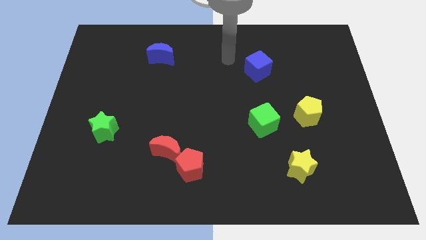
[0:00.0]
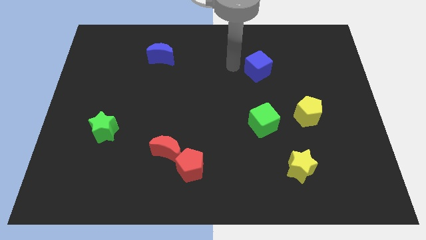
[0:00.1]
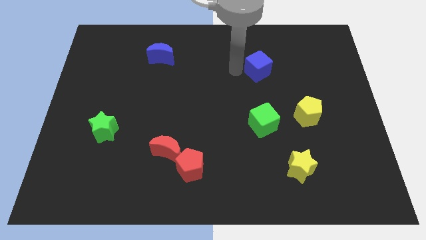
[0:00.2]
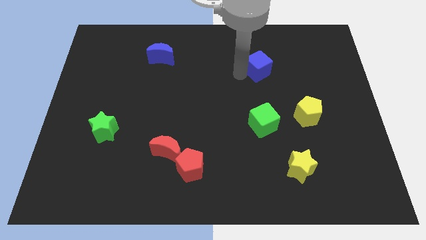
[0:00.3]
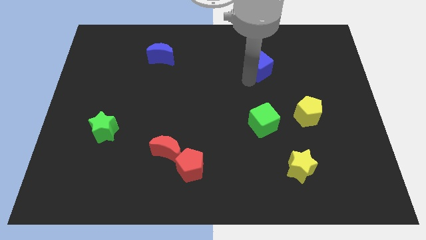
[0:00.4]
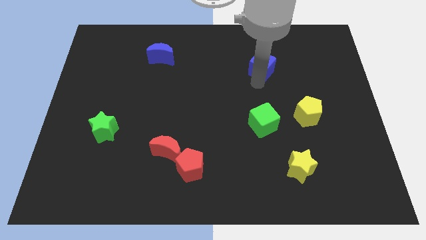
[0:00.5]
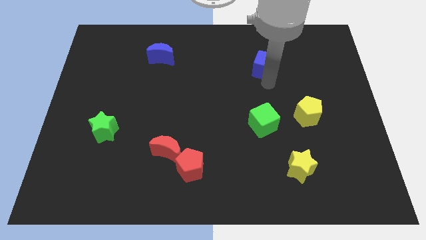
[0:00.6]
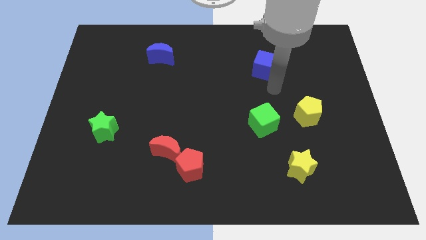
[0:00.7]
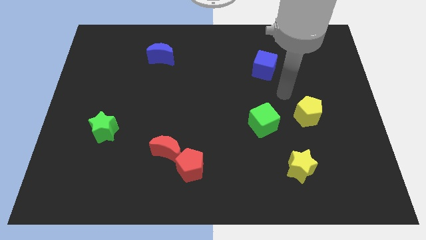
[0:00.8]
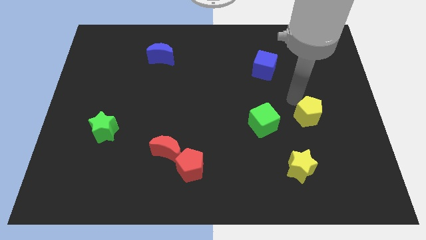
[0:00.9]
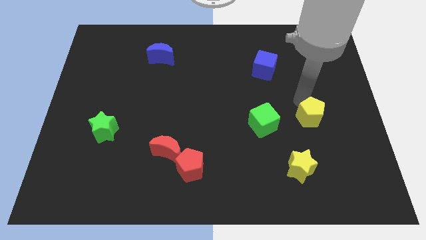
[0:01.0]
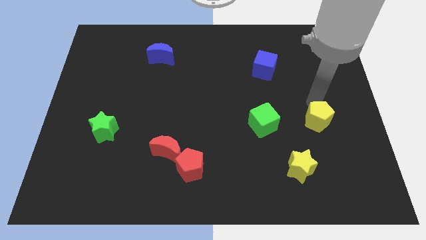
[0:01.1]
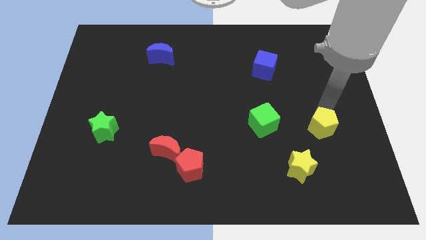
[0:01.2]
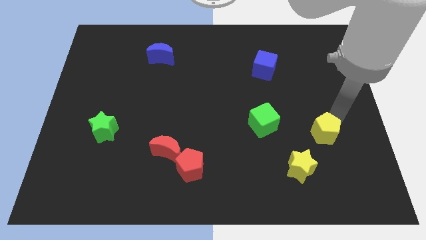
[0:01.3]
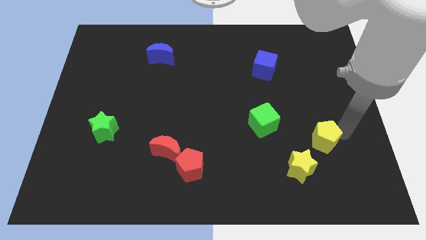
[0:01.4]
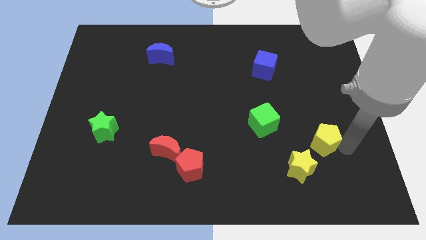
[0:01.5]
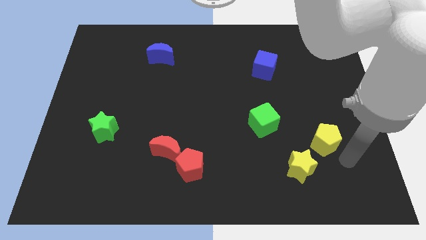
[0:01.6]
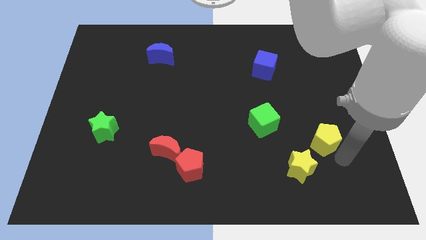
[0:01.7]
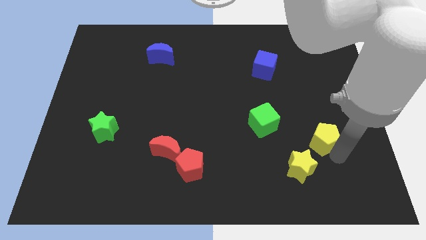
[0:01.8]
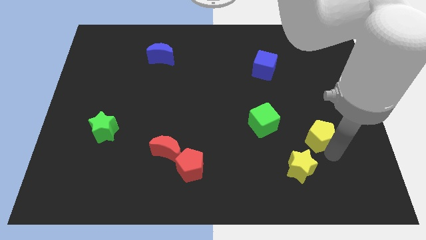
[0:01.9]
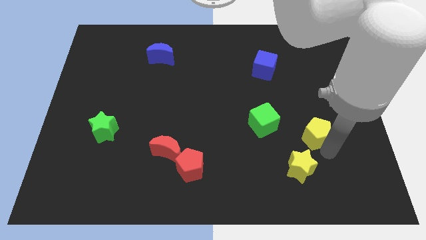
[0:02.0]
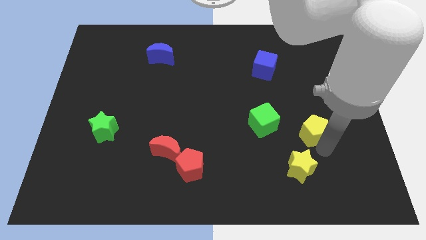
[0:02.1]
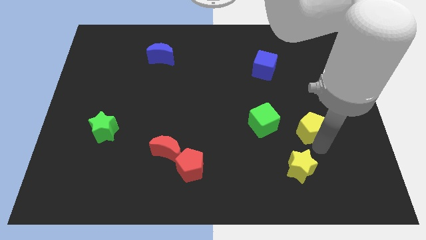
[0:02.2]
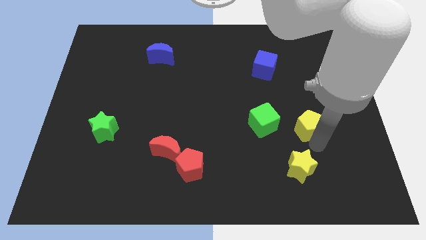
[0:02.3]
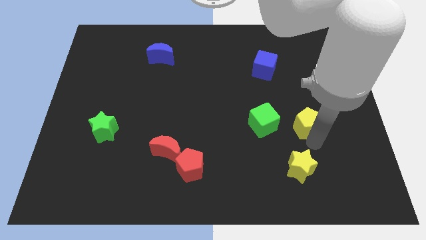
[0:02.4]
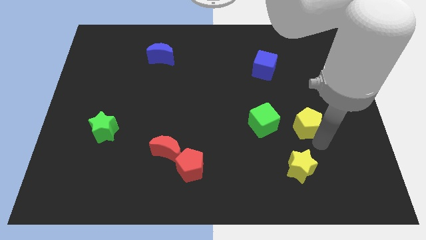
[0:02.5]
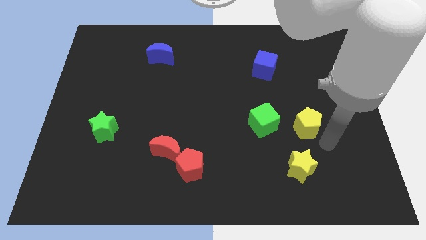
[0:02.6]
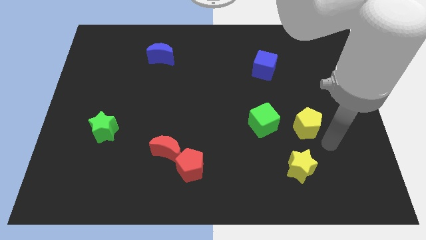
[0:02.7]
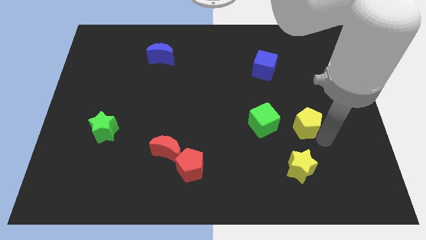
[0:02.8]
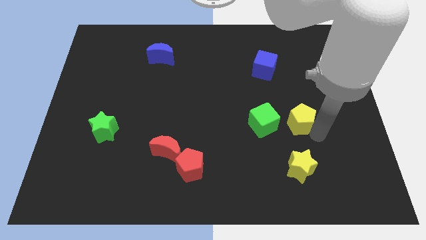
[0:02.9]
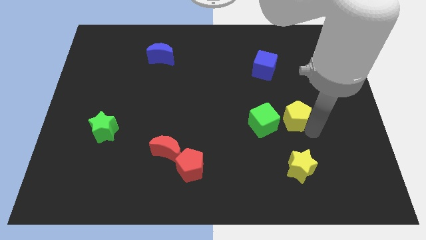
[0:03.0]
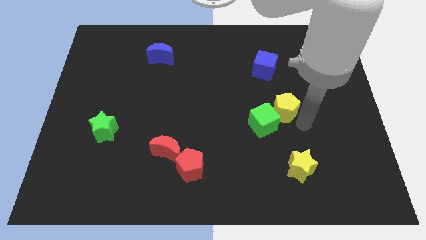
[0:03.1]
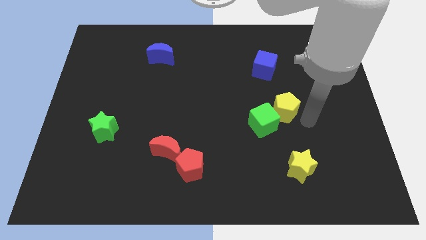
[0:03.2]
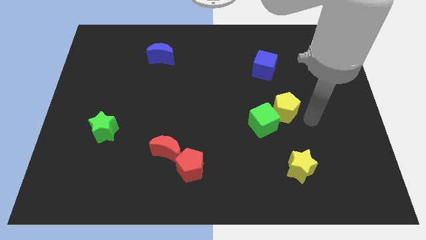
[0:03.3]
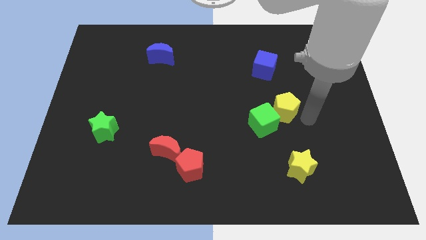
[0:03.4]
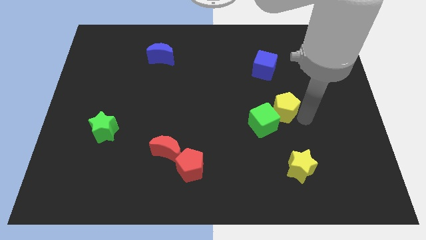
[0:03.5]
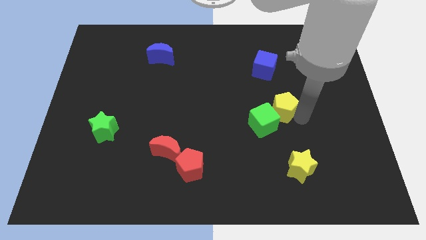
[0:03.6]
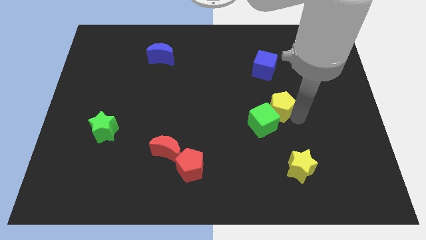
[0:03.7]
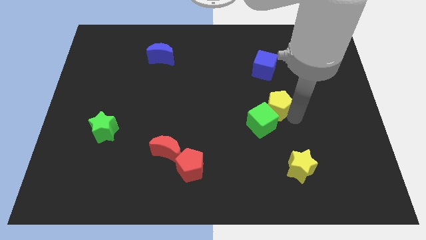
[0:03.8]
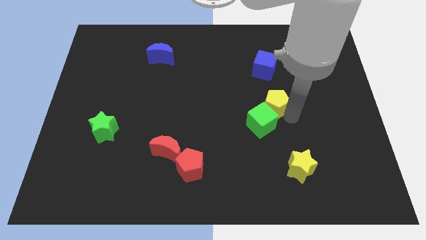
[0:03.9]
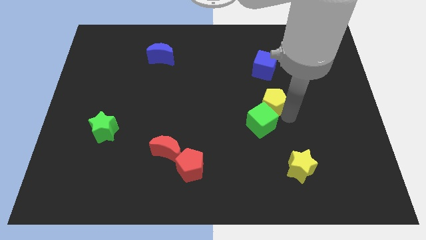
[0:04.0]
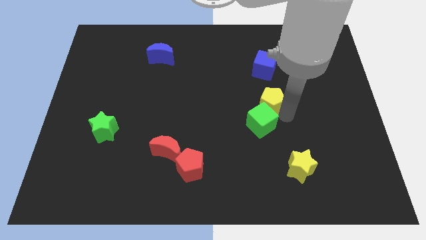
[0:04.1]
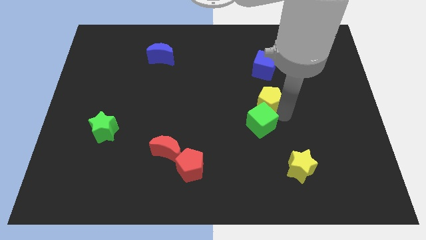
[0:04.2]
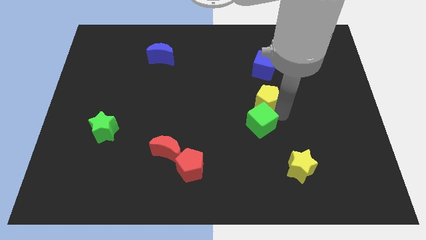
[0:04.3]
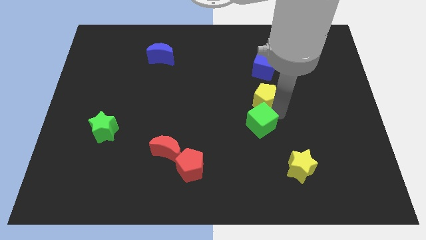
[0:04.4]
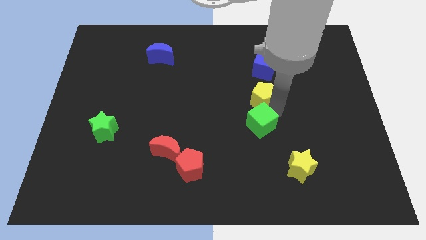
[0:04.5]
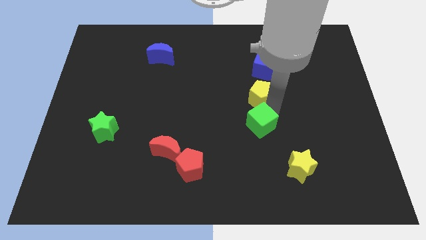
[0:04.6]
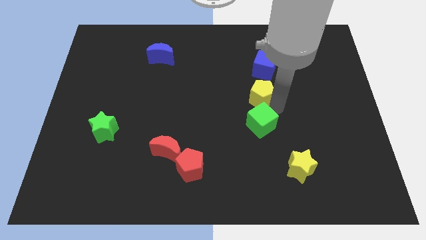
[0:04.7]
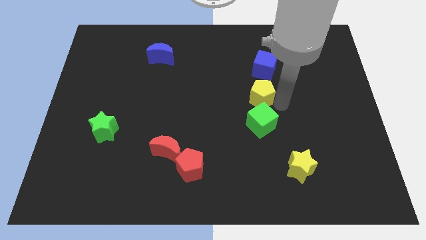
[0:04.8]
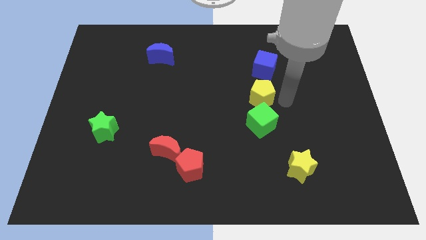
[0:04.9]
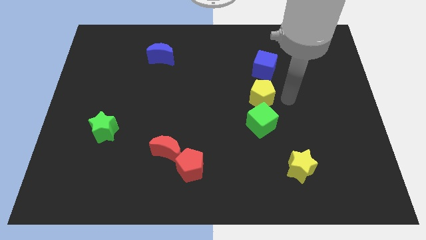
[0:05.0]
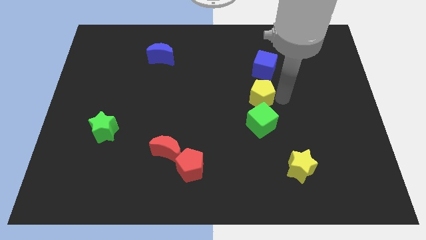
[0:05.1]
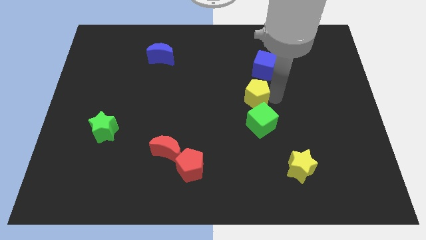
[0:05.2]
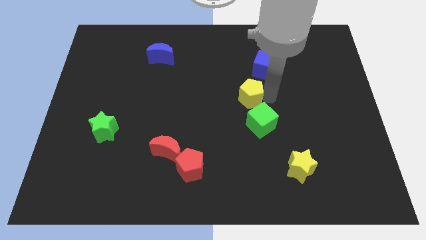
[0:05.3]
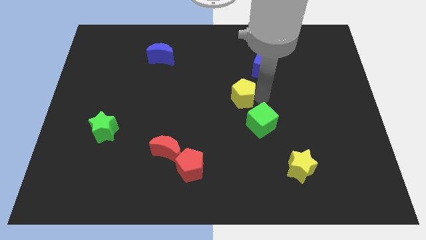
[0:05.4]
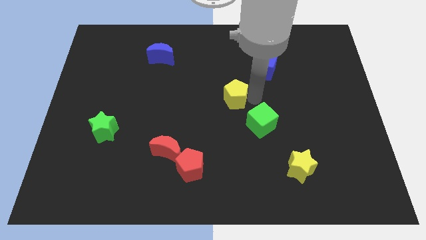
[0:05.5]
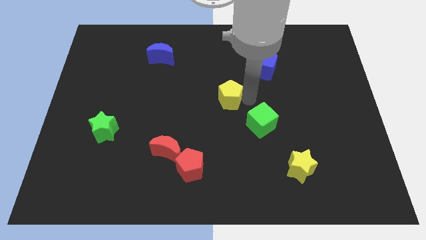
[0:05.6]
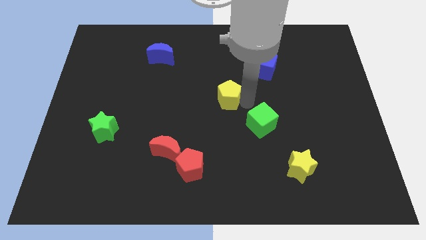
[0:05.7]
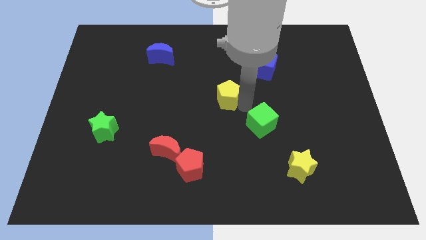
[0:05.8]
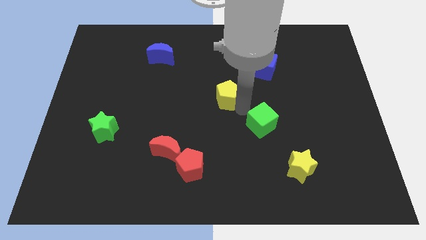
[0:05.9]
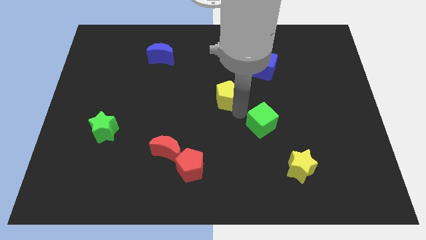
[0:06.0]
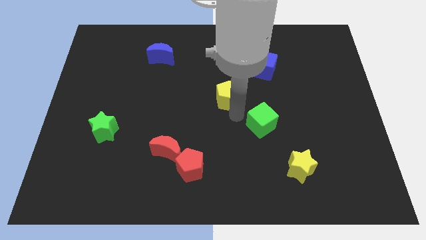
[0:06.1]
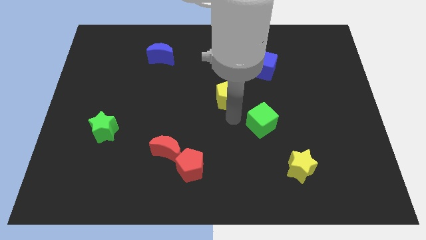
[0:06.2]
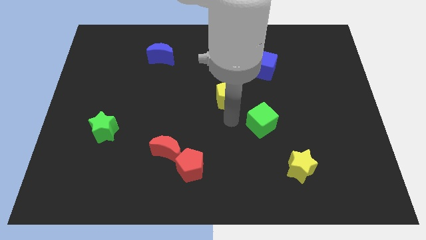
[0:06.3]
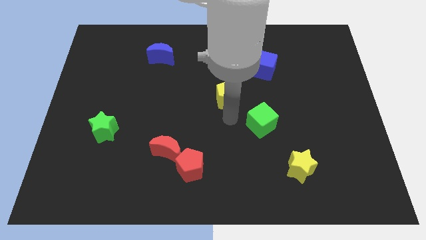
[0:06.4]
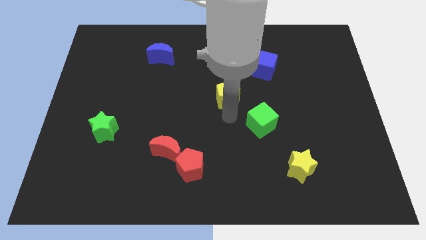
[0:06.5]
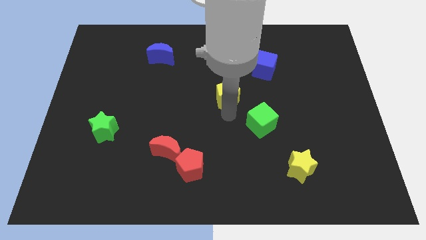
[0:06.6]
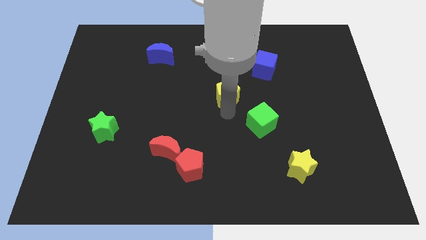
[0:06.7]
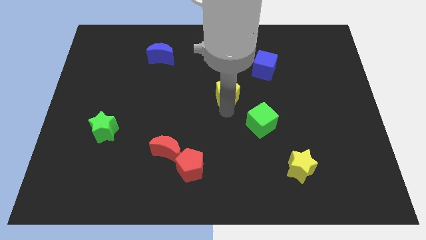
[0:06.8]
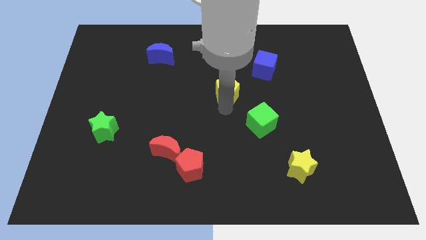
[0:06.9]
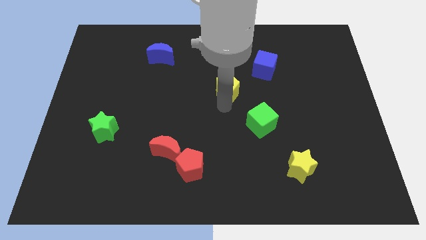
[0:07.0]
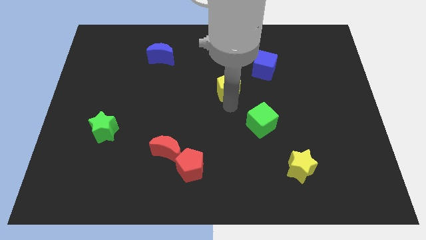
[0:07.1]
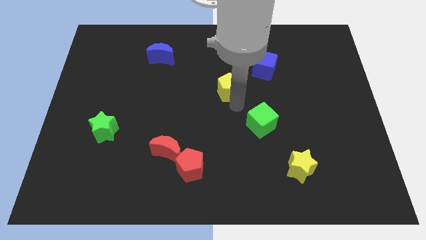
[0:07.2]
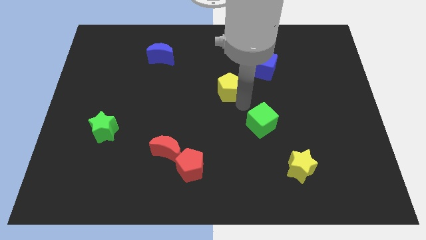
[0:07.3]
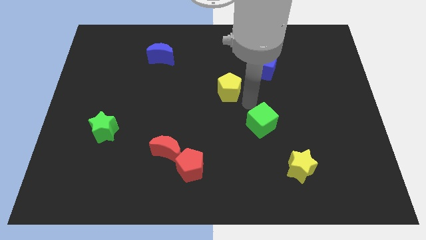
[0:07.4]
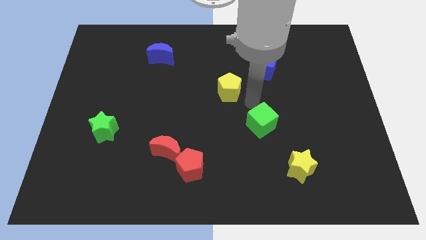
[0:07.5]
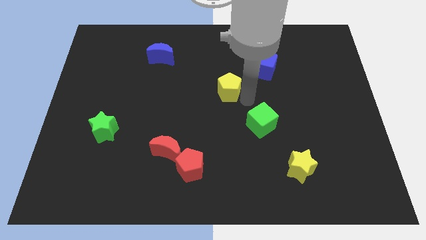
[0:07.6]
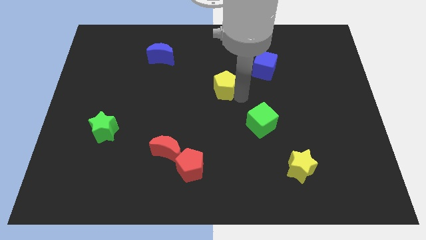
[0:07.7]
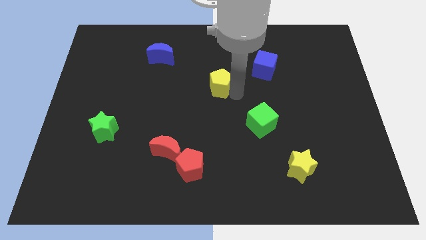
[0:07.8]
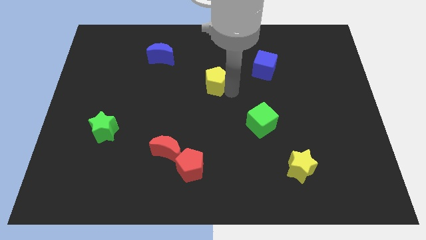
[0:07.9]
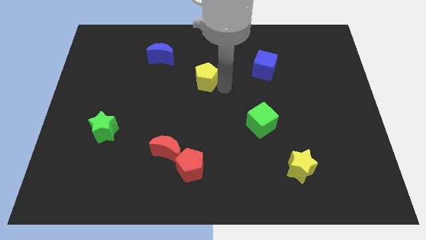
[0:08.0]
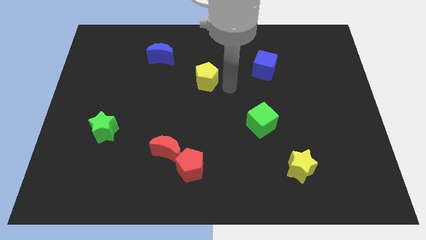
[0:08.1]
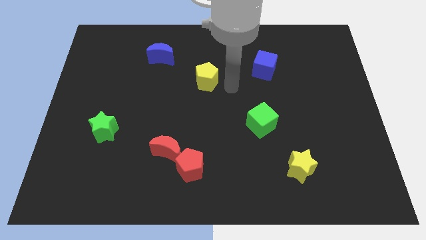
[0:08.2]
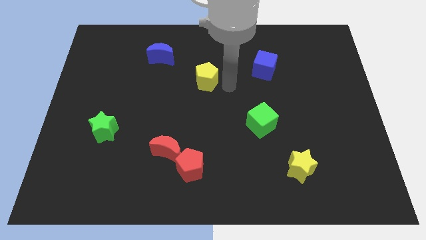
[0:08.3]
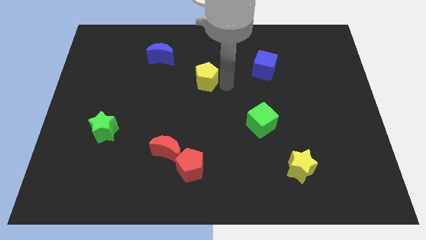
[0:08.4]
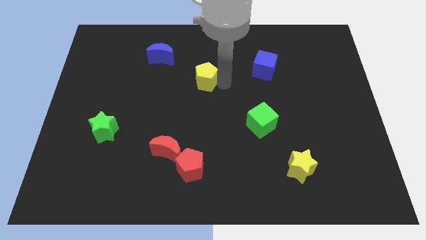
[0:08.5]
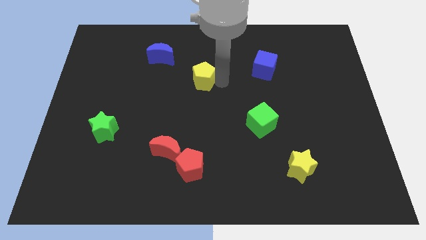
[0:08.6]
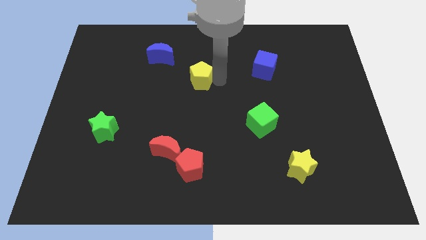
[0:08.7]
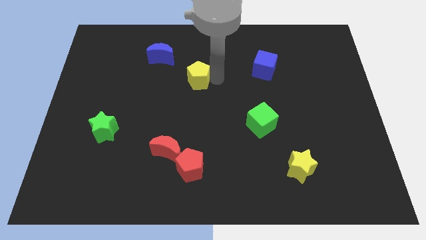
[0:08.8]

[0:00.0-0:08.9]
put the yellow pentagon to the bottom right of the blue moon
